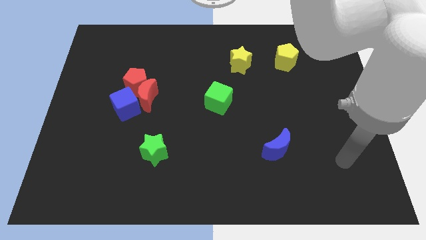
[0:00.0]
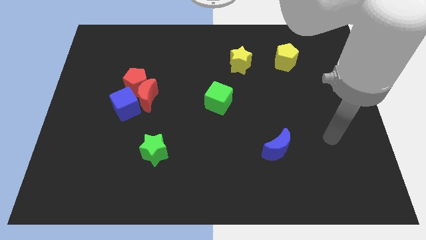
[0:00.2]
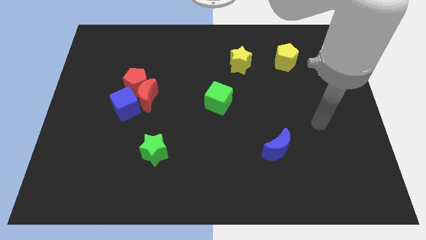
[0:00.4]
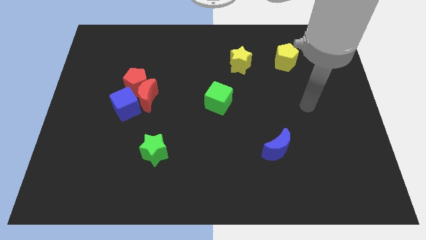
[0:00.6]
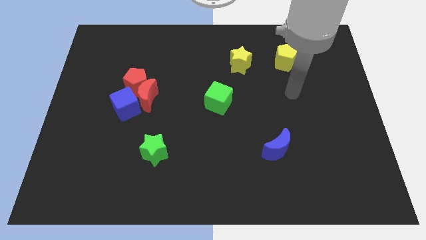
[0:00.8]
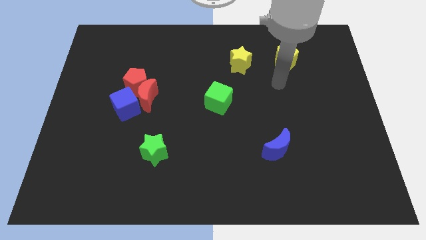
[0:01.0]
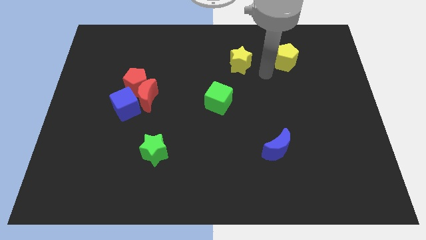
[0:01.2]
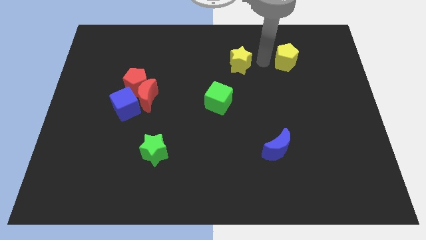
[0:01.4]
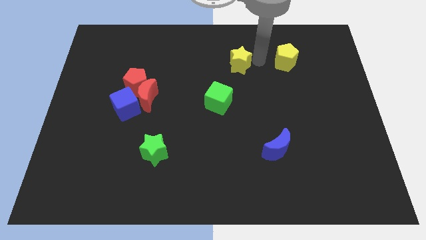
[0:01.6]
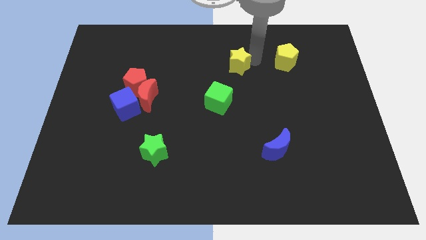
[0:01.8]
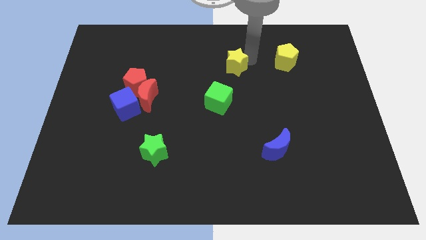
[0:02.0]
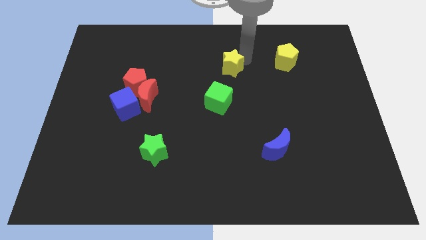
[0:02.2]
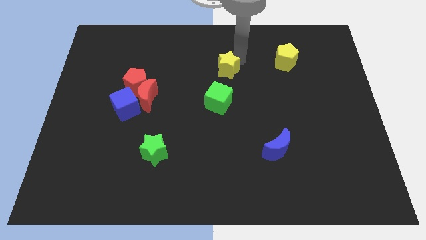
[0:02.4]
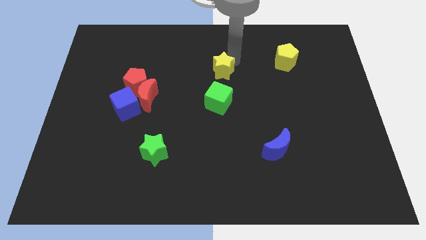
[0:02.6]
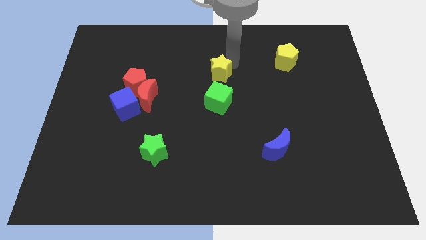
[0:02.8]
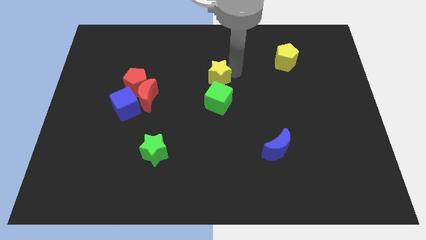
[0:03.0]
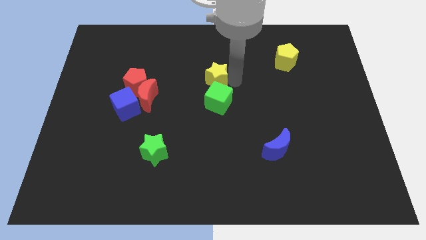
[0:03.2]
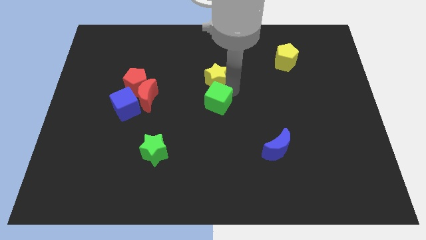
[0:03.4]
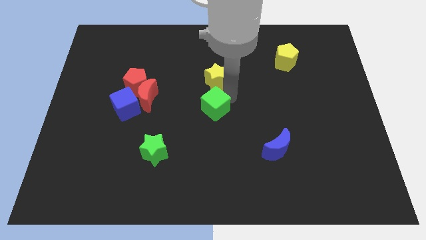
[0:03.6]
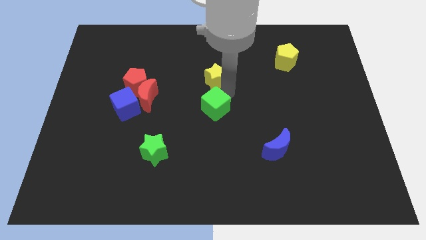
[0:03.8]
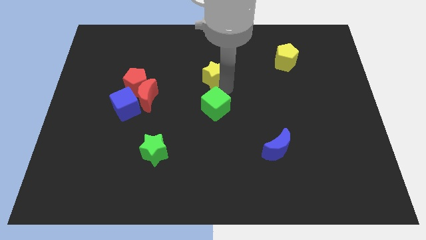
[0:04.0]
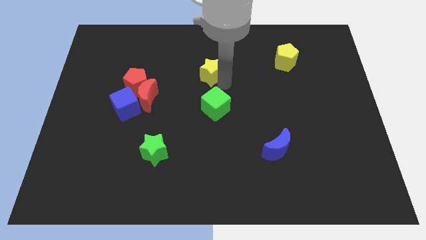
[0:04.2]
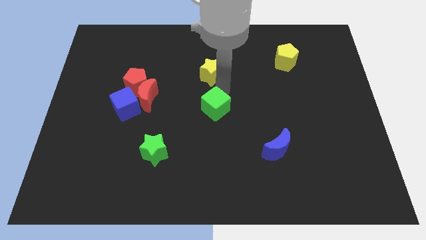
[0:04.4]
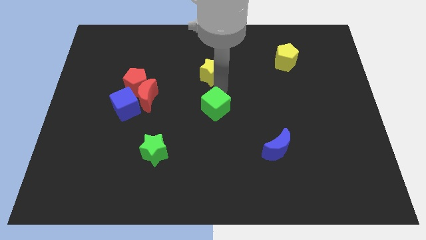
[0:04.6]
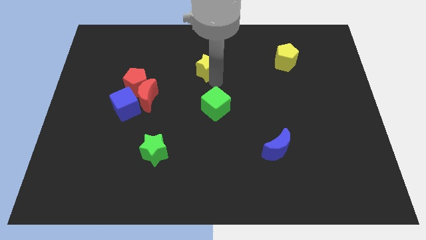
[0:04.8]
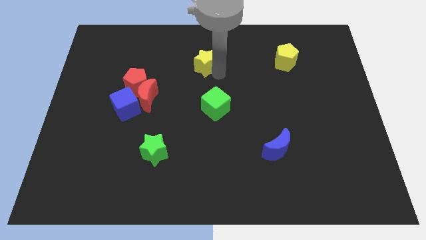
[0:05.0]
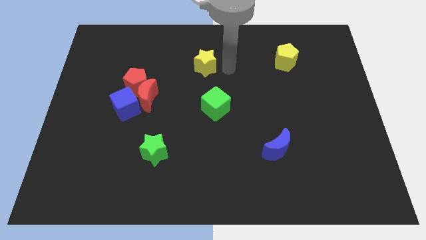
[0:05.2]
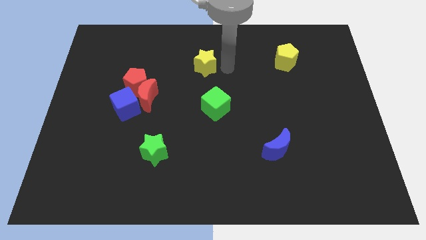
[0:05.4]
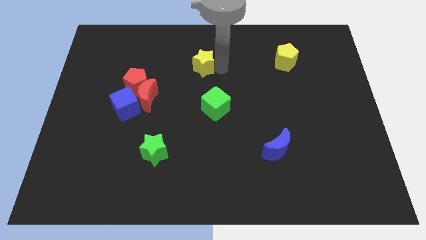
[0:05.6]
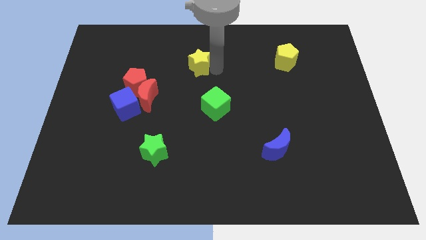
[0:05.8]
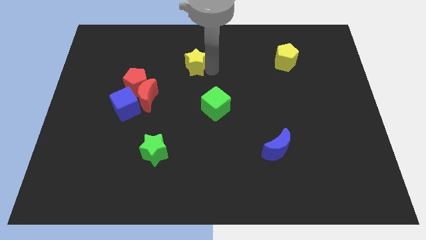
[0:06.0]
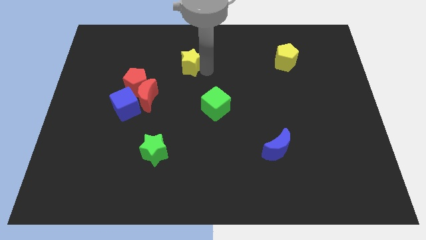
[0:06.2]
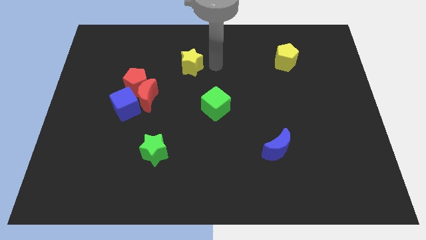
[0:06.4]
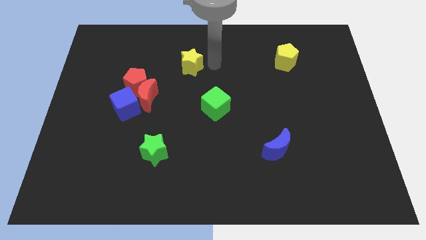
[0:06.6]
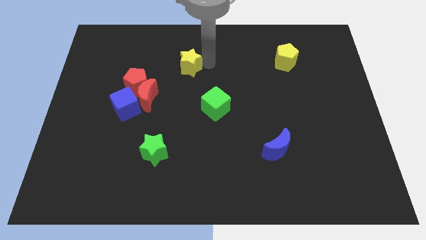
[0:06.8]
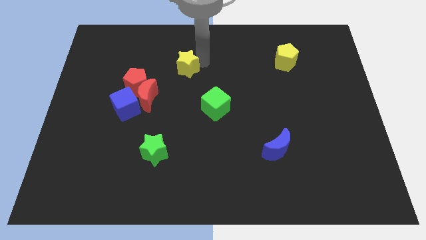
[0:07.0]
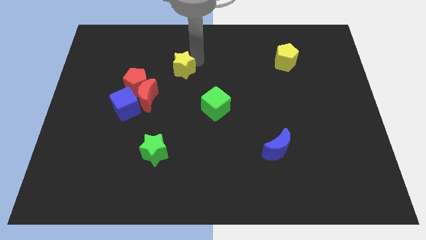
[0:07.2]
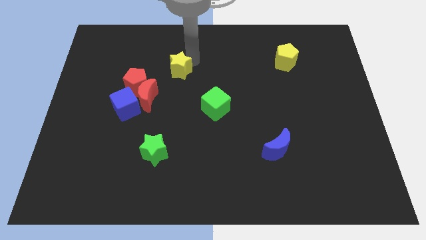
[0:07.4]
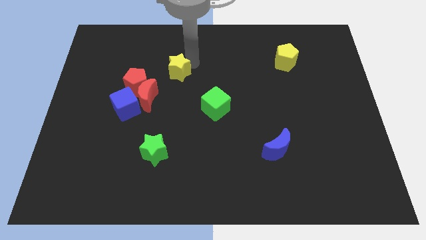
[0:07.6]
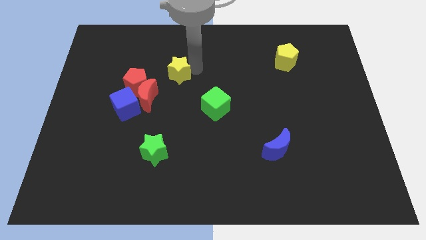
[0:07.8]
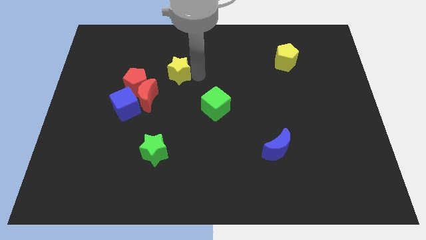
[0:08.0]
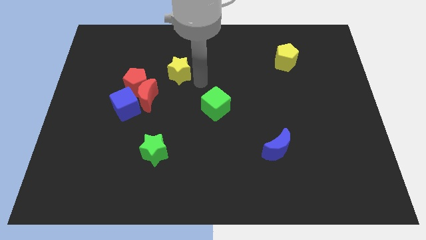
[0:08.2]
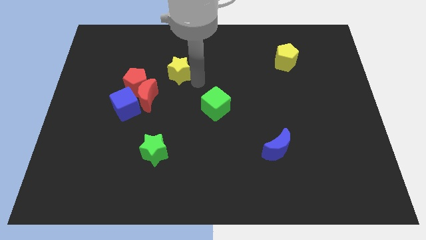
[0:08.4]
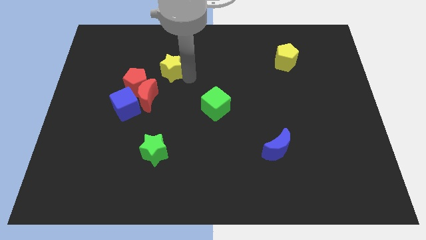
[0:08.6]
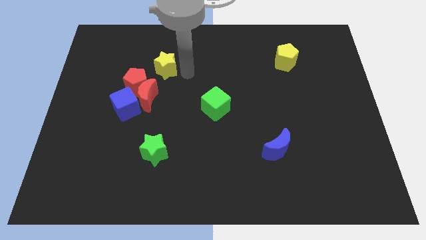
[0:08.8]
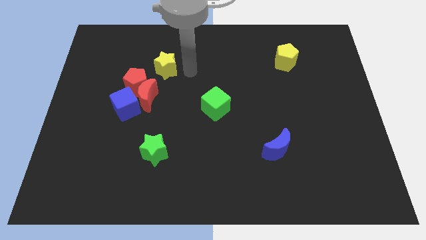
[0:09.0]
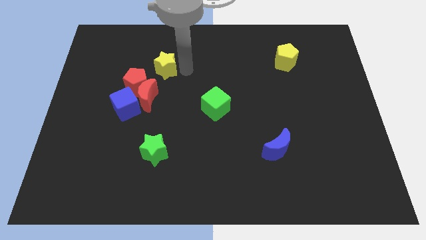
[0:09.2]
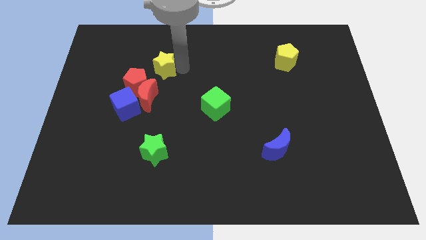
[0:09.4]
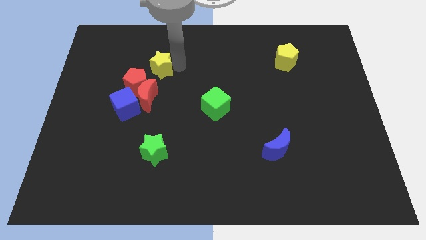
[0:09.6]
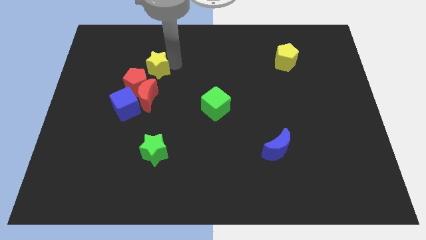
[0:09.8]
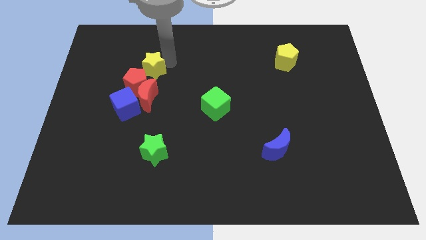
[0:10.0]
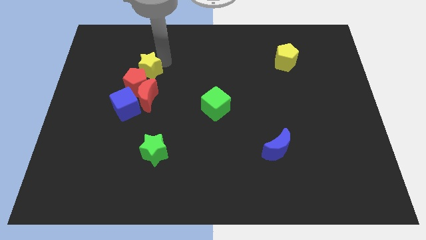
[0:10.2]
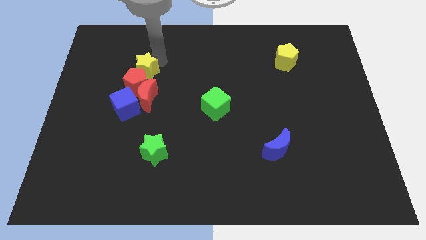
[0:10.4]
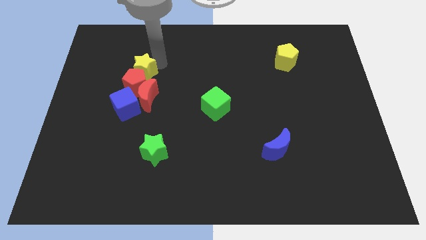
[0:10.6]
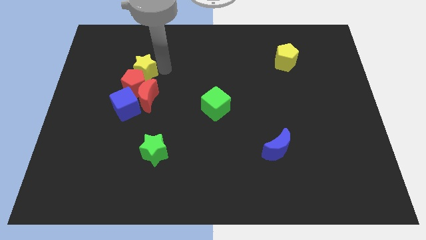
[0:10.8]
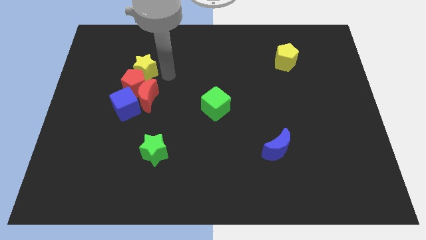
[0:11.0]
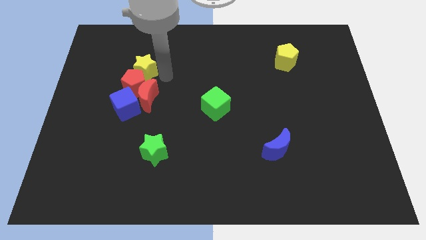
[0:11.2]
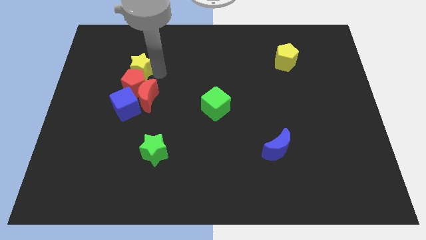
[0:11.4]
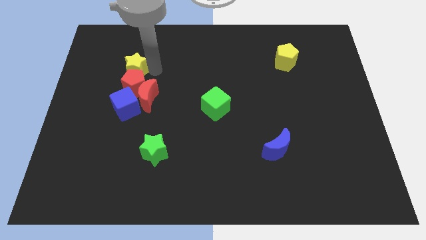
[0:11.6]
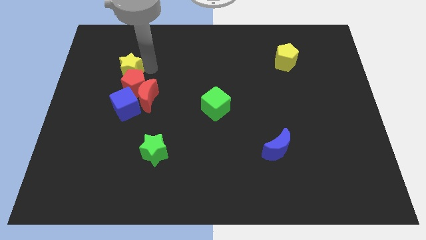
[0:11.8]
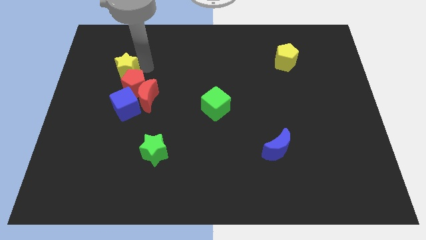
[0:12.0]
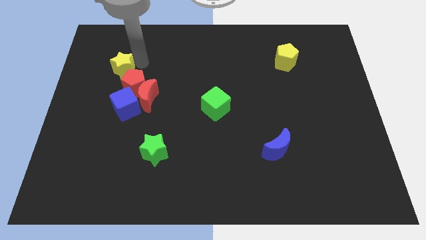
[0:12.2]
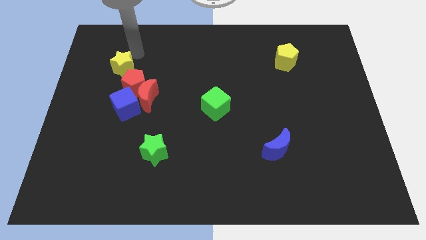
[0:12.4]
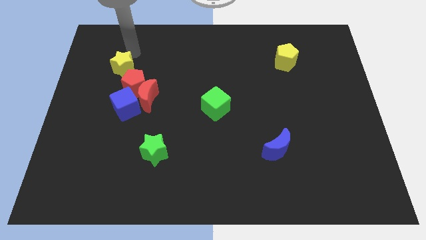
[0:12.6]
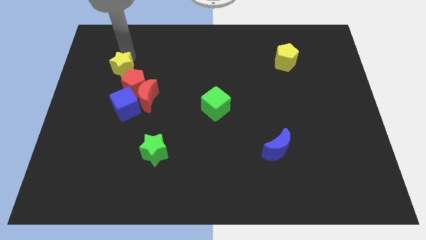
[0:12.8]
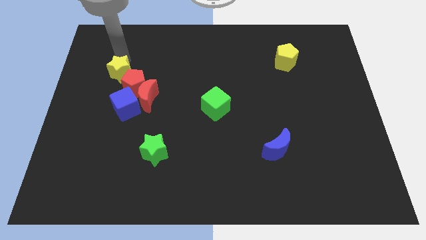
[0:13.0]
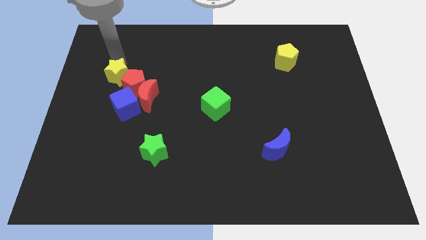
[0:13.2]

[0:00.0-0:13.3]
put the yellow star to the top left side of the blue cube

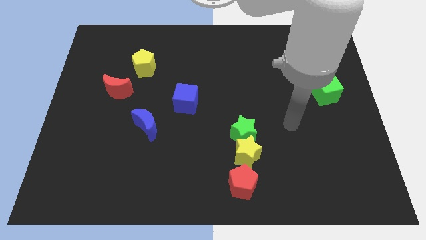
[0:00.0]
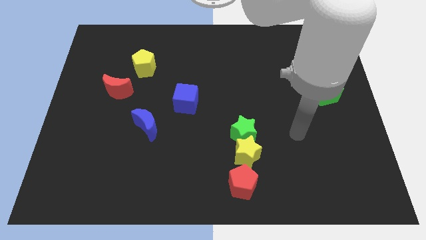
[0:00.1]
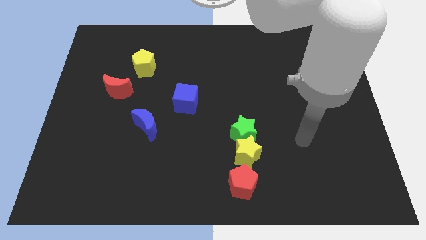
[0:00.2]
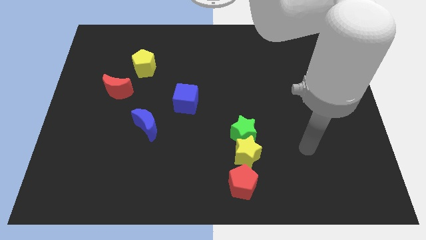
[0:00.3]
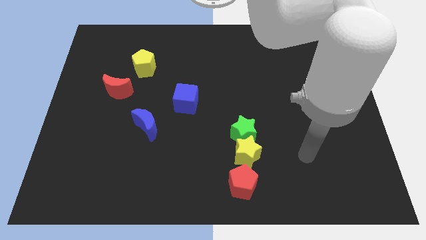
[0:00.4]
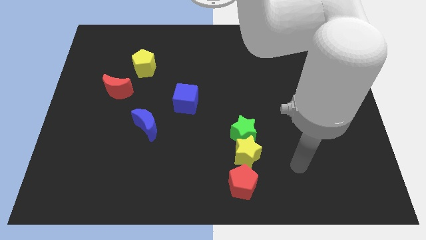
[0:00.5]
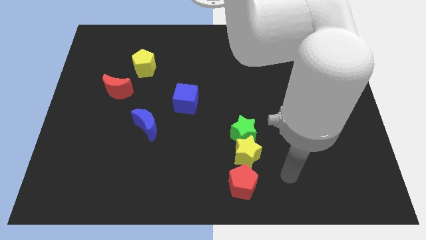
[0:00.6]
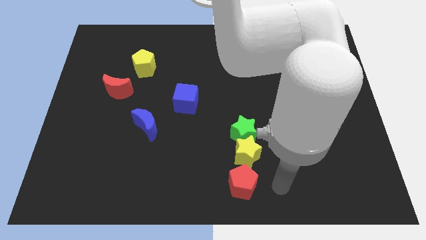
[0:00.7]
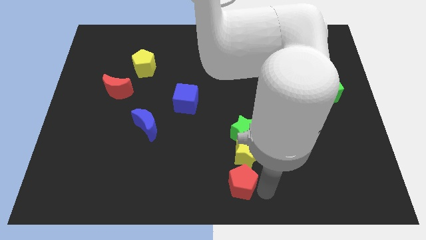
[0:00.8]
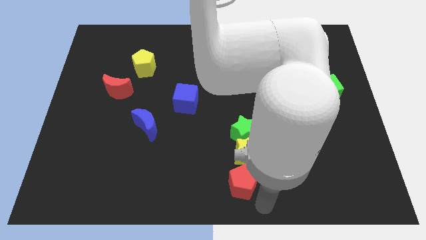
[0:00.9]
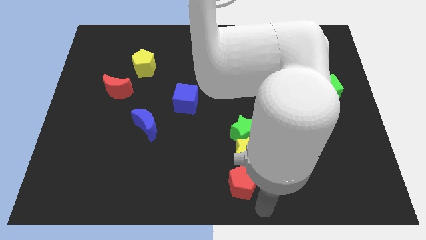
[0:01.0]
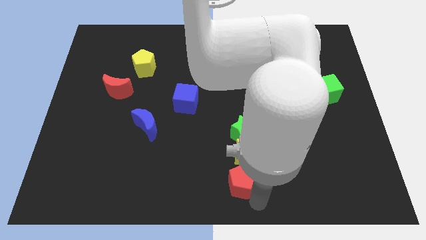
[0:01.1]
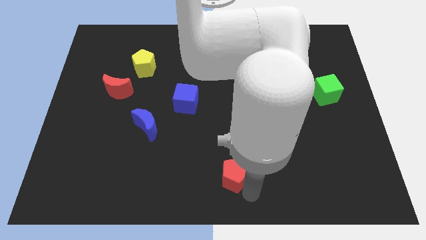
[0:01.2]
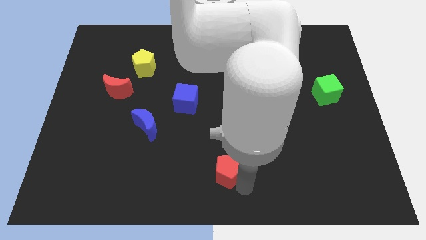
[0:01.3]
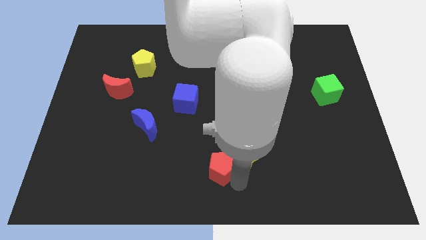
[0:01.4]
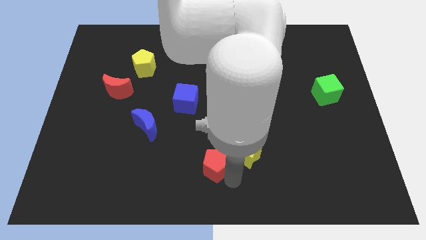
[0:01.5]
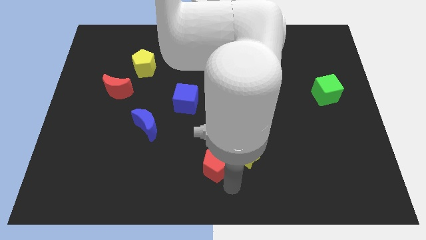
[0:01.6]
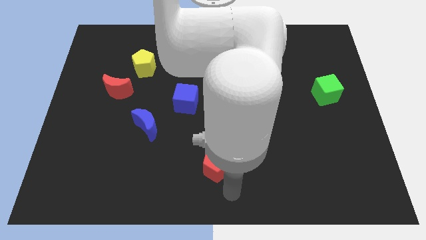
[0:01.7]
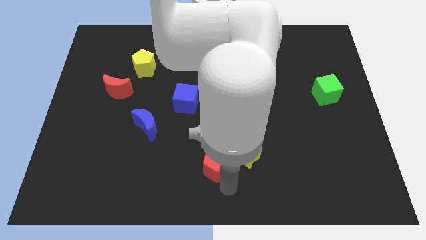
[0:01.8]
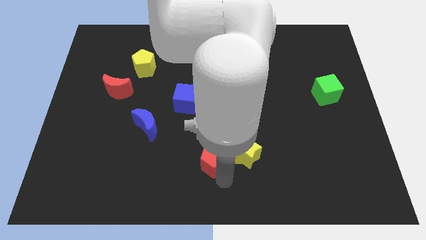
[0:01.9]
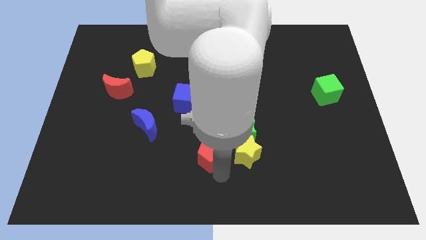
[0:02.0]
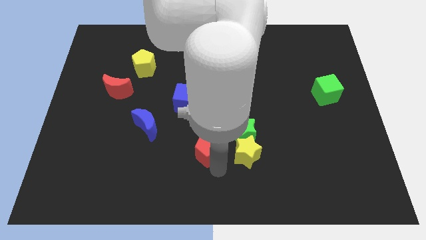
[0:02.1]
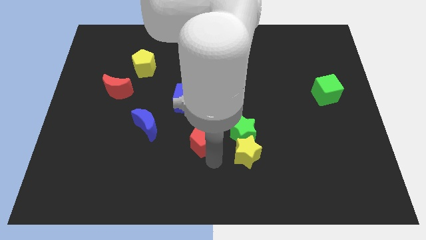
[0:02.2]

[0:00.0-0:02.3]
put the red pentagon to the right side of the blue moon
